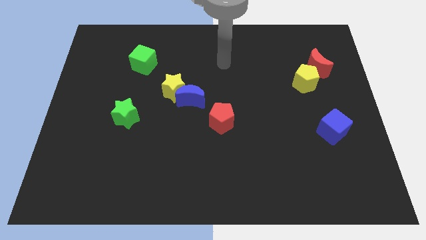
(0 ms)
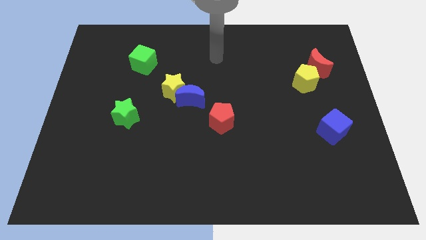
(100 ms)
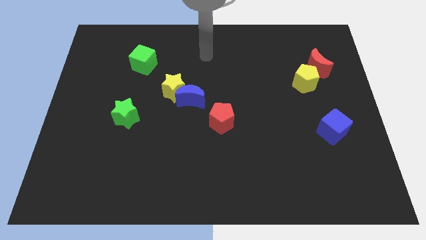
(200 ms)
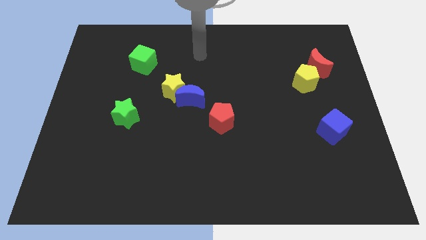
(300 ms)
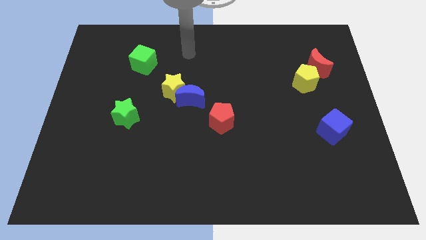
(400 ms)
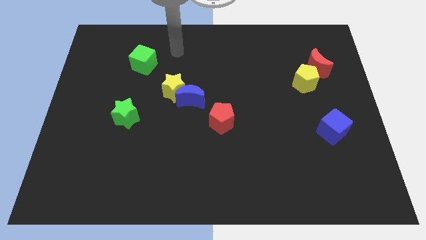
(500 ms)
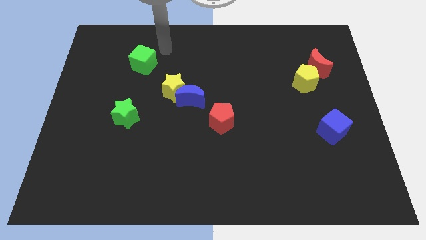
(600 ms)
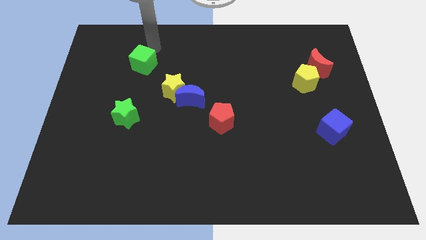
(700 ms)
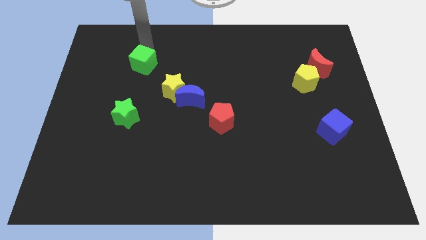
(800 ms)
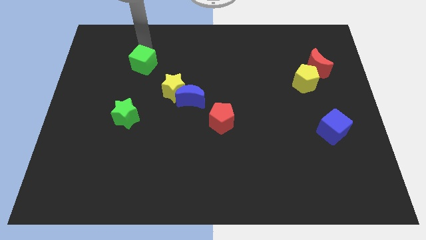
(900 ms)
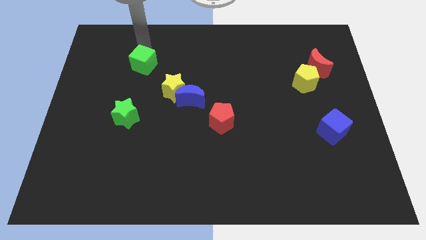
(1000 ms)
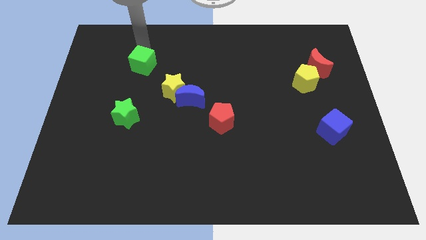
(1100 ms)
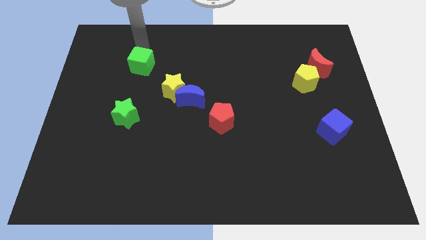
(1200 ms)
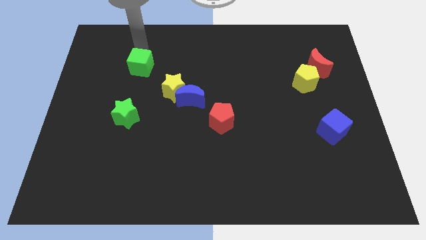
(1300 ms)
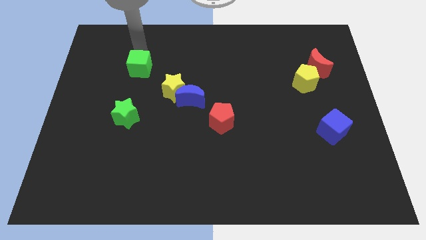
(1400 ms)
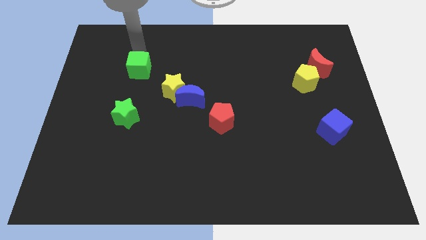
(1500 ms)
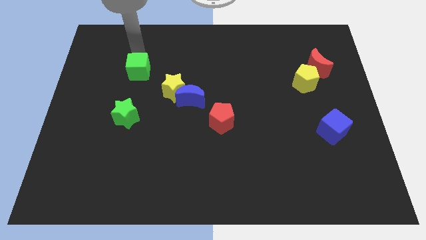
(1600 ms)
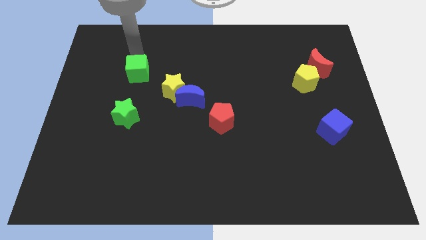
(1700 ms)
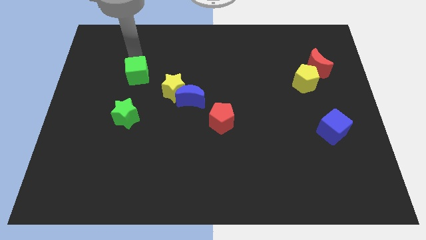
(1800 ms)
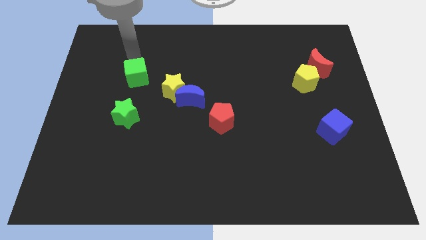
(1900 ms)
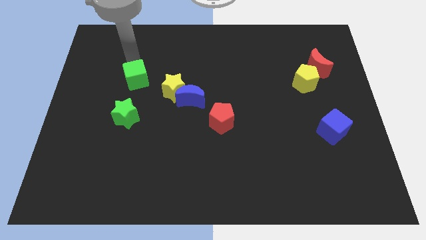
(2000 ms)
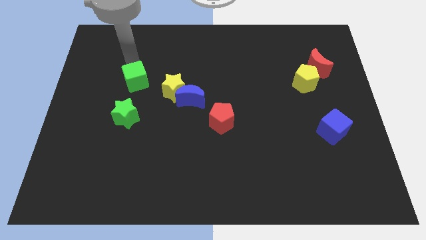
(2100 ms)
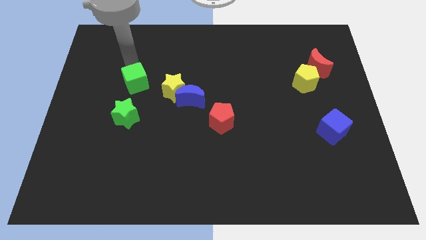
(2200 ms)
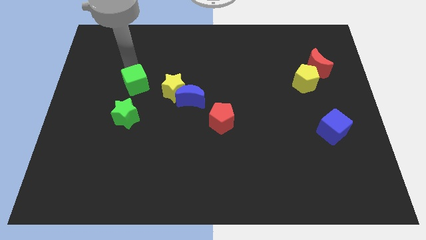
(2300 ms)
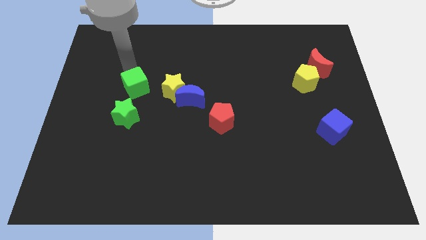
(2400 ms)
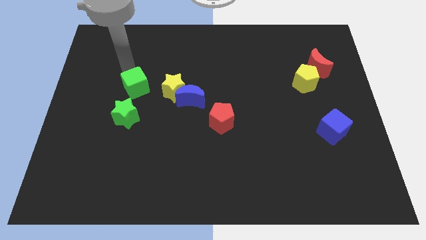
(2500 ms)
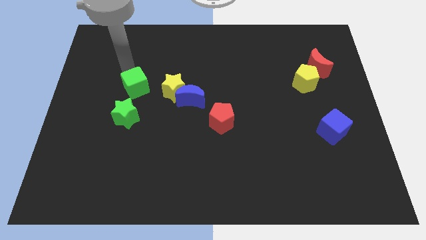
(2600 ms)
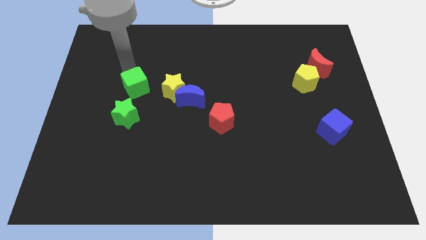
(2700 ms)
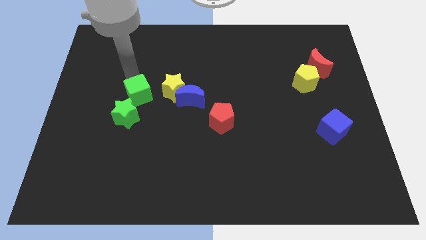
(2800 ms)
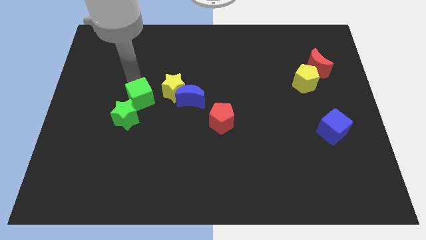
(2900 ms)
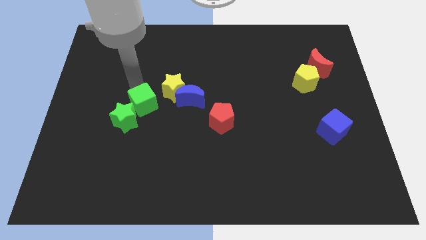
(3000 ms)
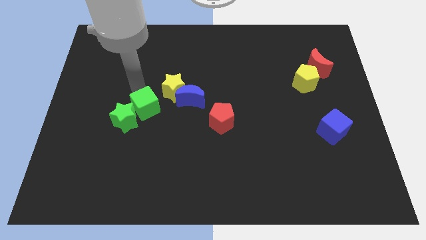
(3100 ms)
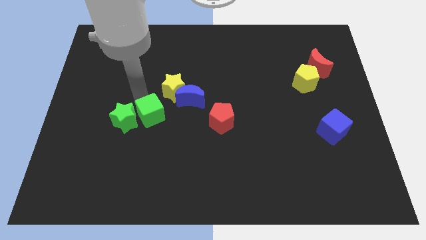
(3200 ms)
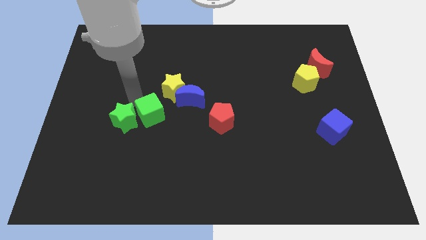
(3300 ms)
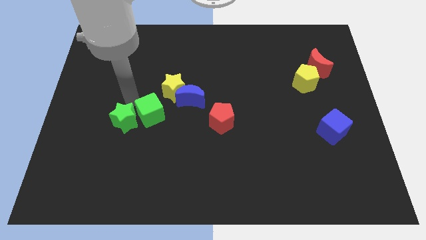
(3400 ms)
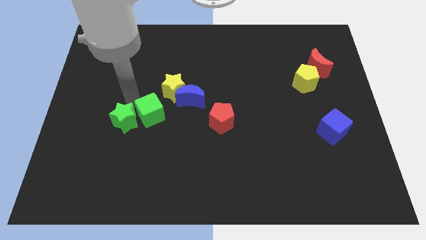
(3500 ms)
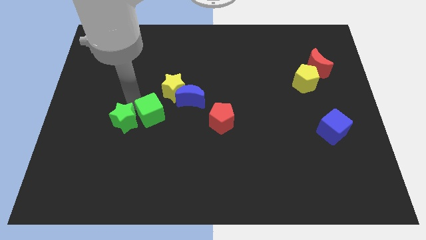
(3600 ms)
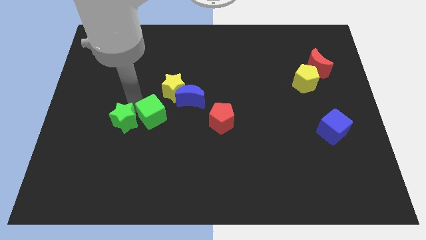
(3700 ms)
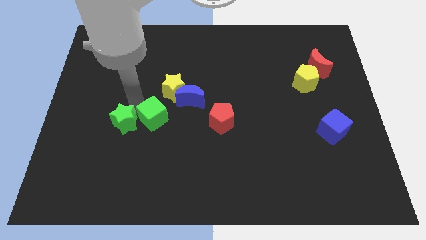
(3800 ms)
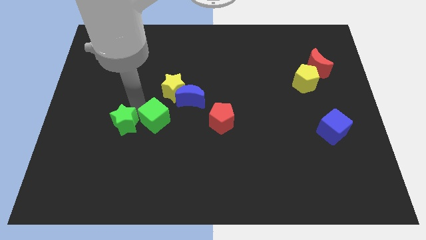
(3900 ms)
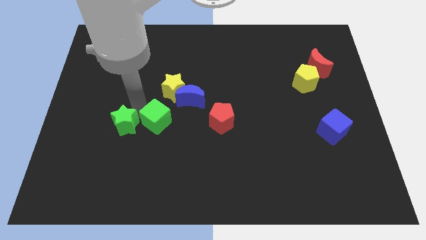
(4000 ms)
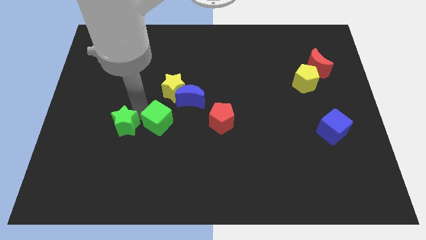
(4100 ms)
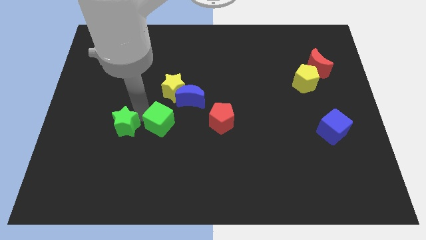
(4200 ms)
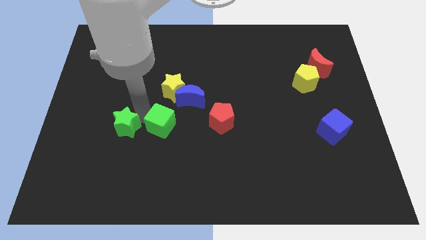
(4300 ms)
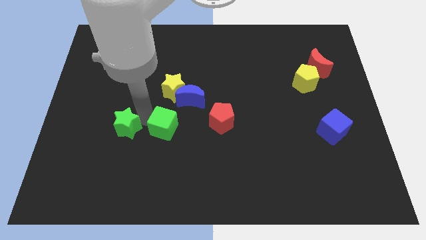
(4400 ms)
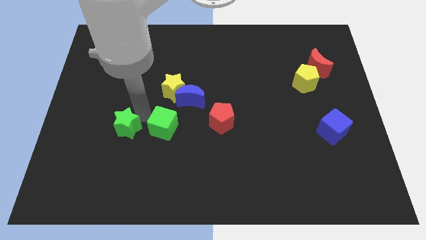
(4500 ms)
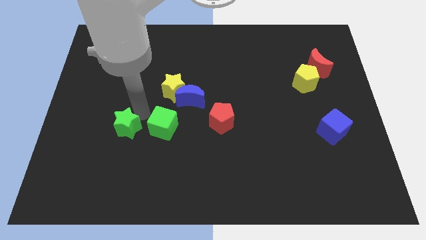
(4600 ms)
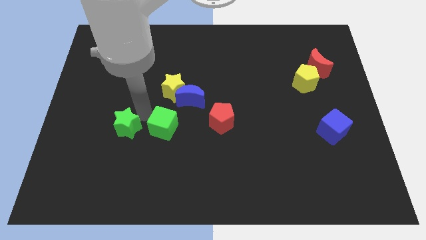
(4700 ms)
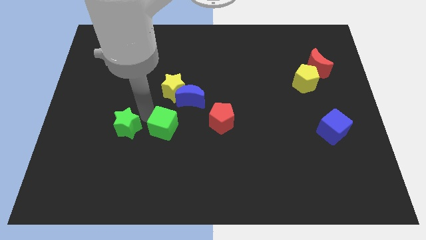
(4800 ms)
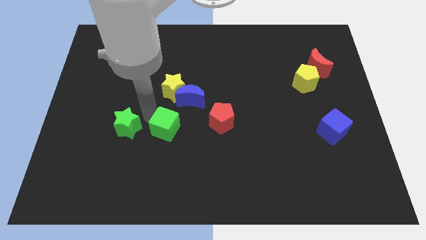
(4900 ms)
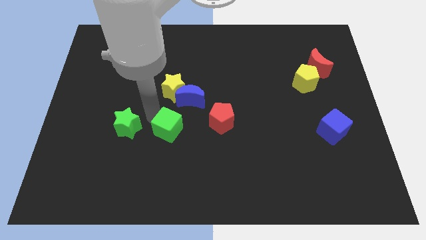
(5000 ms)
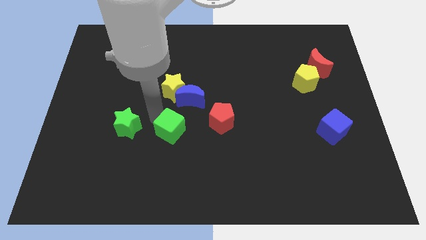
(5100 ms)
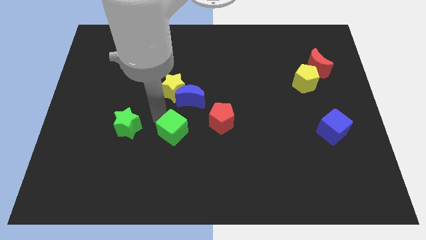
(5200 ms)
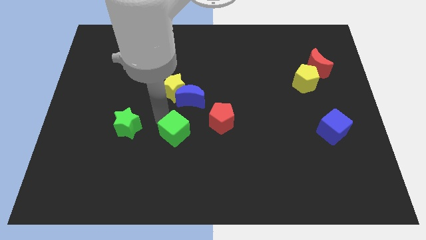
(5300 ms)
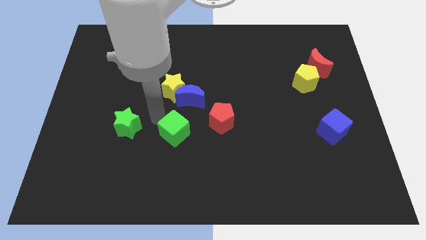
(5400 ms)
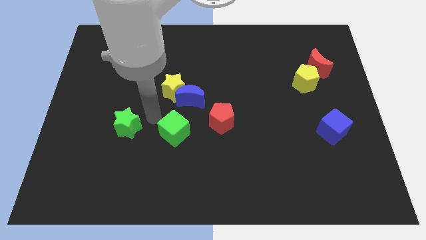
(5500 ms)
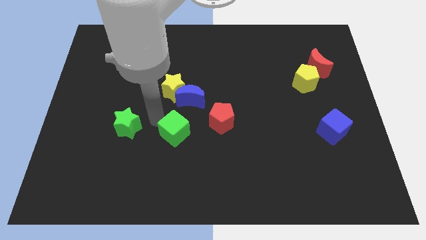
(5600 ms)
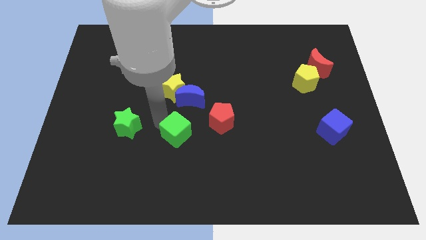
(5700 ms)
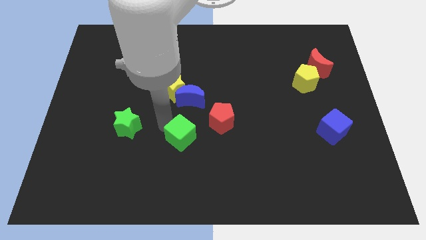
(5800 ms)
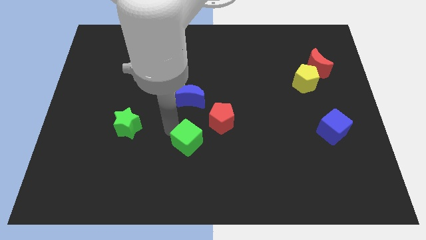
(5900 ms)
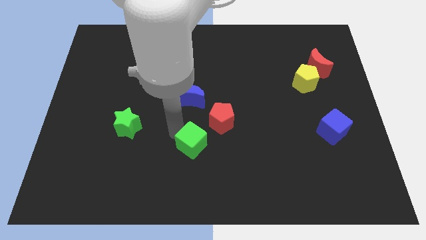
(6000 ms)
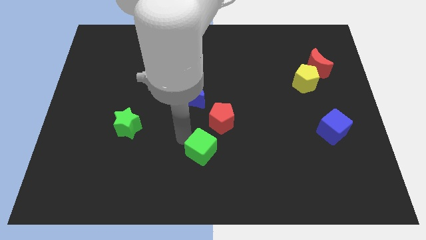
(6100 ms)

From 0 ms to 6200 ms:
slide the green cube to the bottom side of the red pentagon

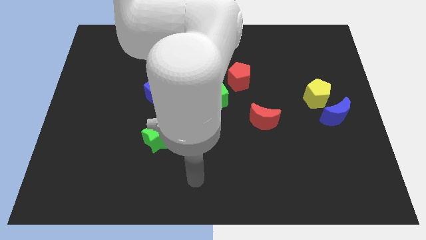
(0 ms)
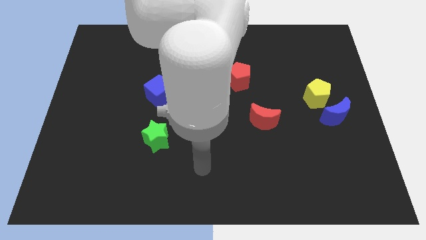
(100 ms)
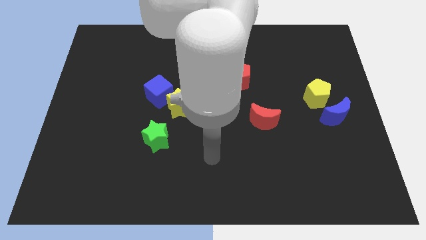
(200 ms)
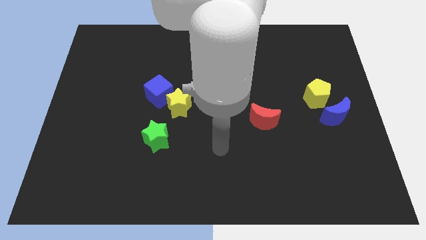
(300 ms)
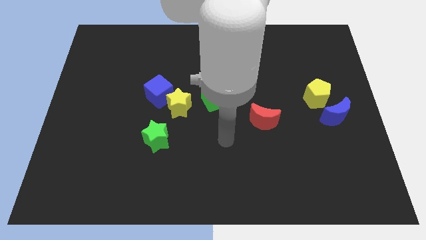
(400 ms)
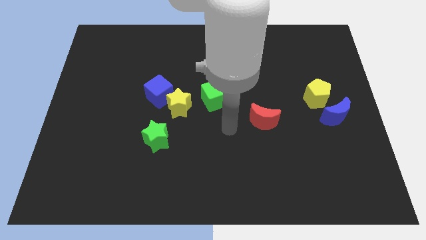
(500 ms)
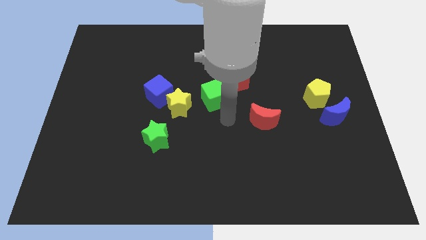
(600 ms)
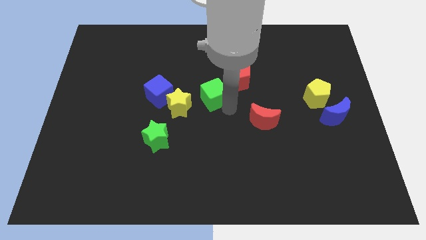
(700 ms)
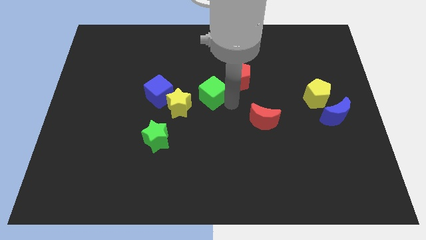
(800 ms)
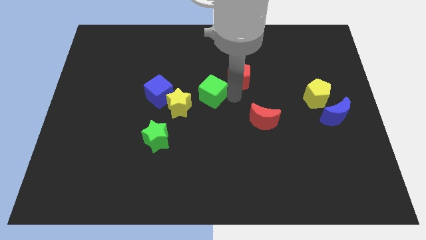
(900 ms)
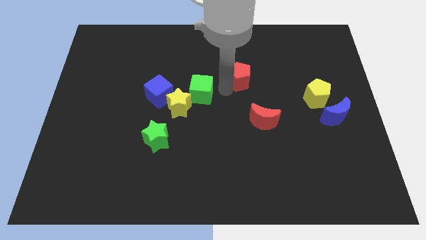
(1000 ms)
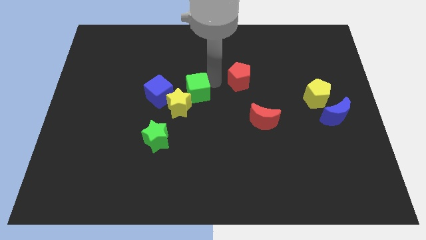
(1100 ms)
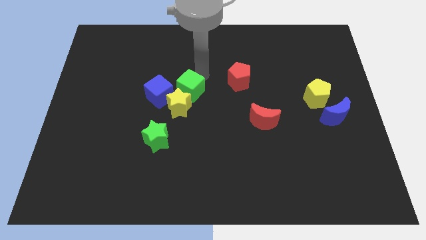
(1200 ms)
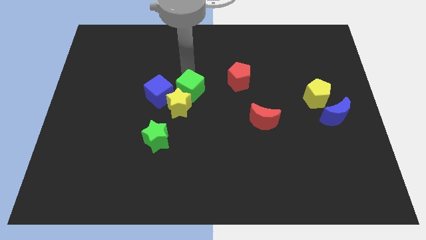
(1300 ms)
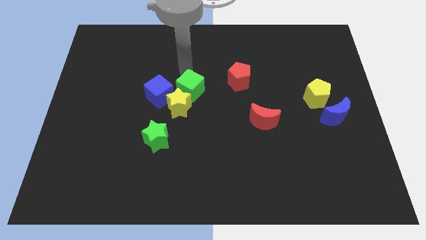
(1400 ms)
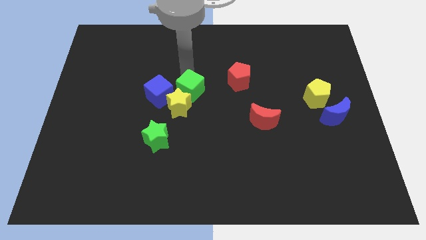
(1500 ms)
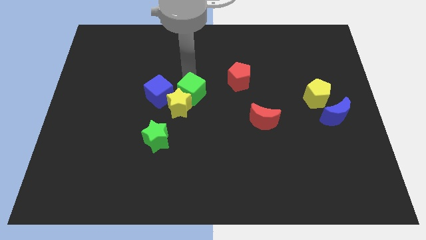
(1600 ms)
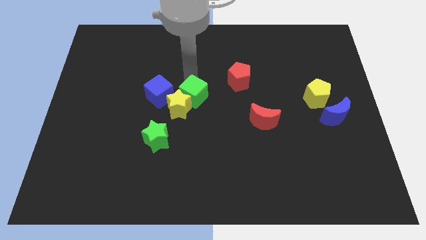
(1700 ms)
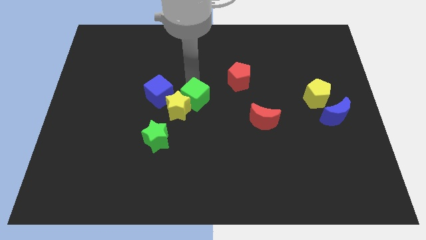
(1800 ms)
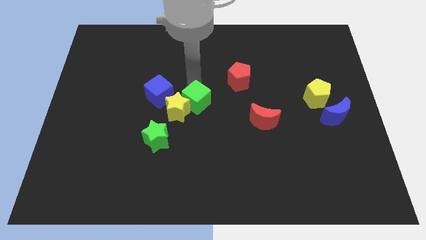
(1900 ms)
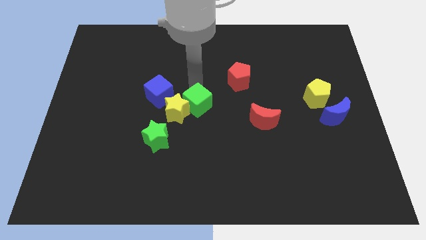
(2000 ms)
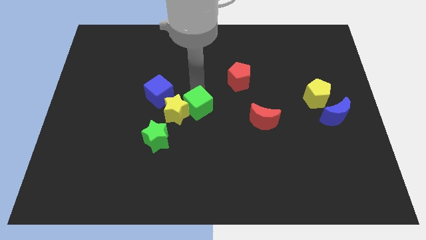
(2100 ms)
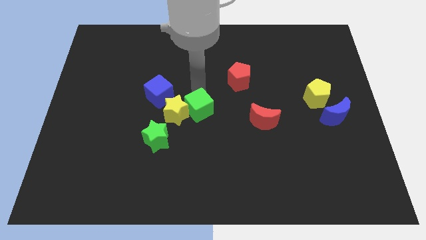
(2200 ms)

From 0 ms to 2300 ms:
move the green cube diagonally down and to the right of the yellow star
